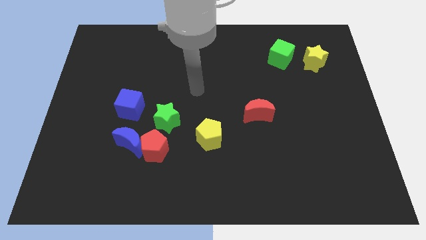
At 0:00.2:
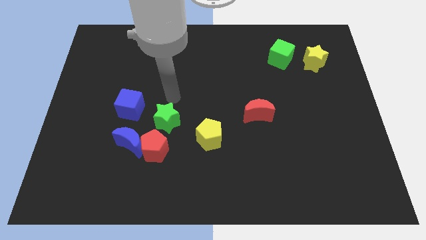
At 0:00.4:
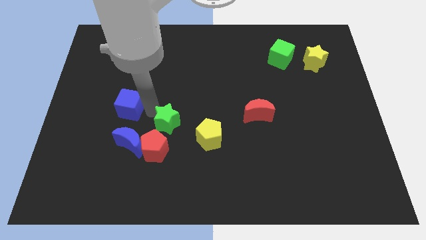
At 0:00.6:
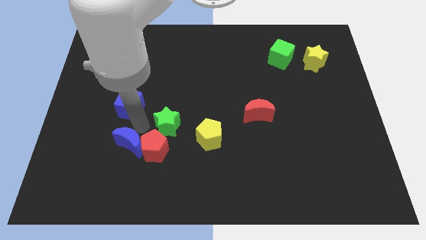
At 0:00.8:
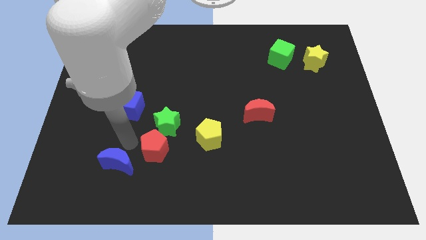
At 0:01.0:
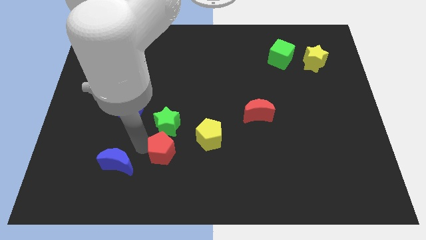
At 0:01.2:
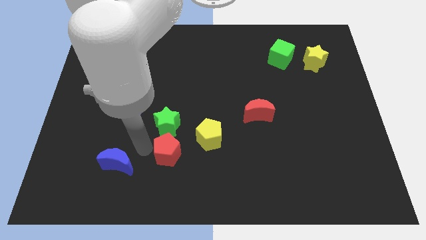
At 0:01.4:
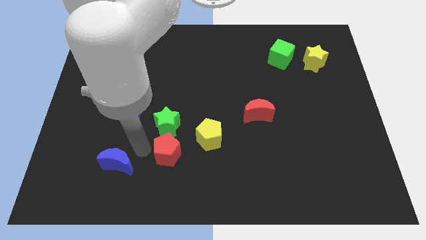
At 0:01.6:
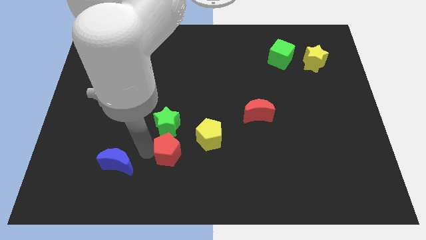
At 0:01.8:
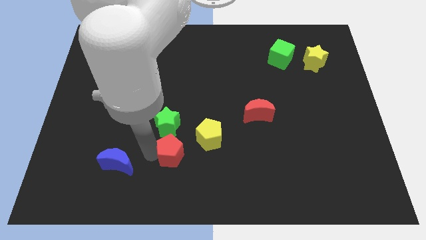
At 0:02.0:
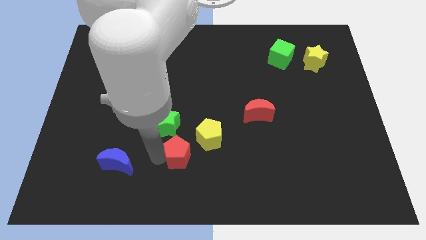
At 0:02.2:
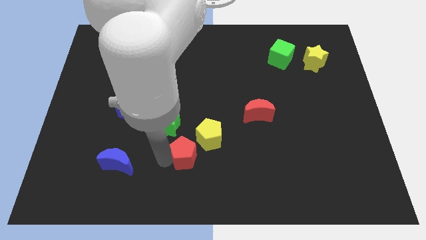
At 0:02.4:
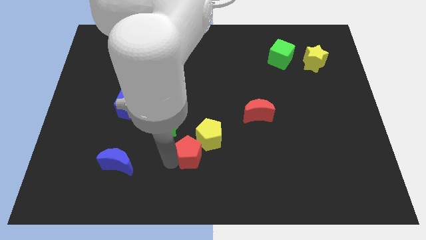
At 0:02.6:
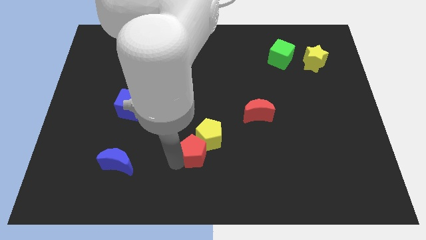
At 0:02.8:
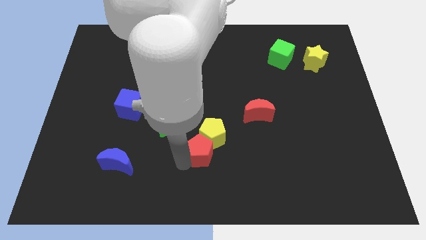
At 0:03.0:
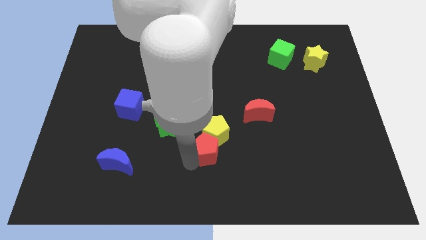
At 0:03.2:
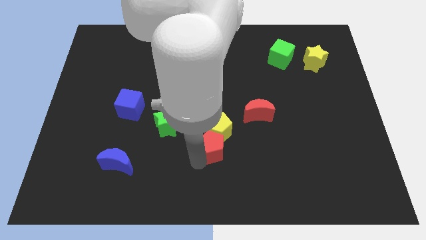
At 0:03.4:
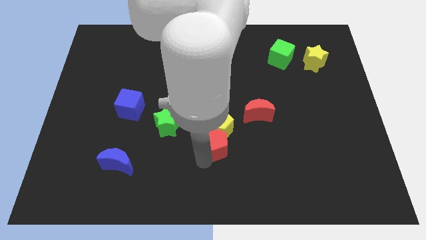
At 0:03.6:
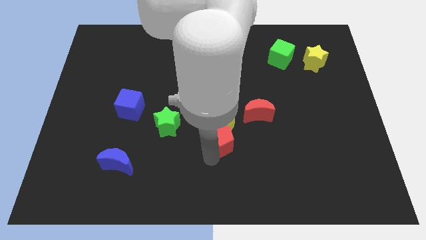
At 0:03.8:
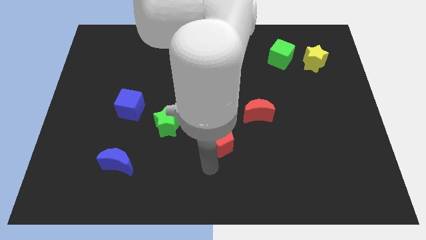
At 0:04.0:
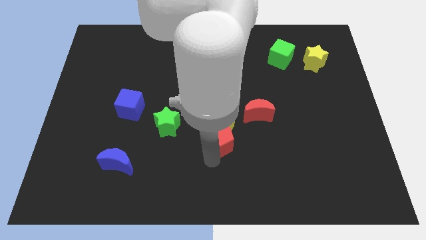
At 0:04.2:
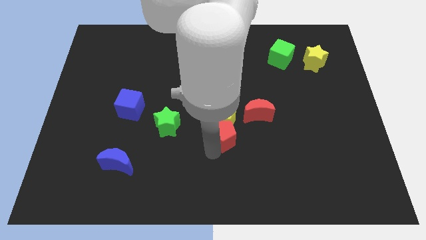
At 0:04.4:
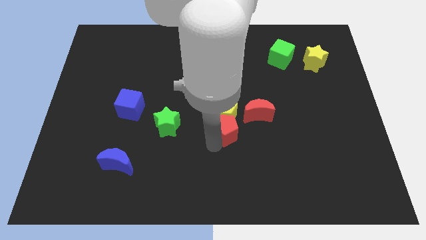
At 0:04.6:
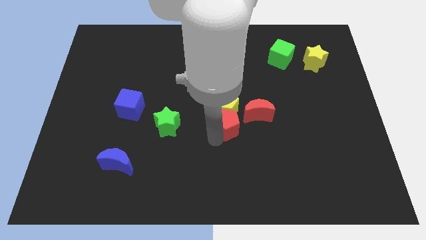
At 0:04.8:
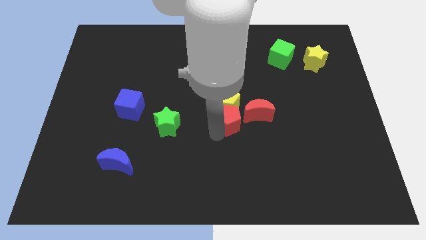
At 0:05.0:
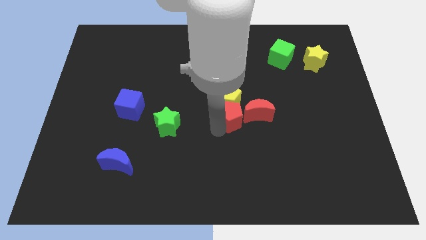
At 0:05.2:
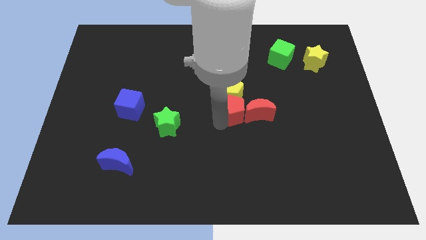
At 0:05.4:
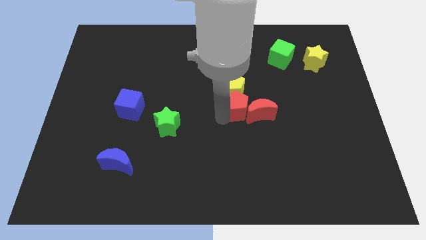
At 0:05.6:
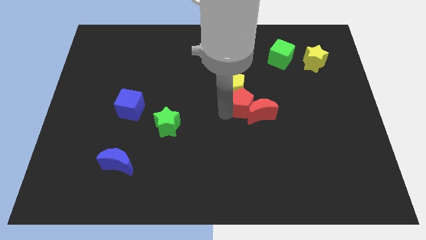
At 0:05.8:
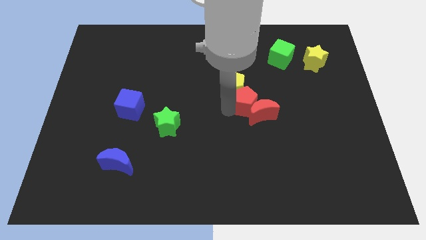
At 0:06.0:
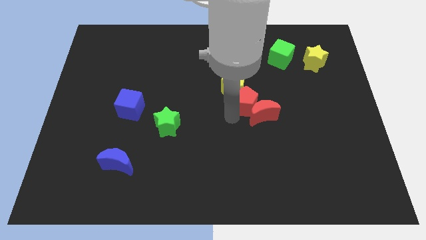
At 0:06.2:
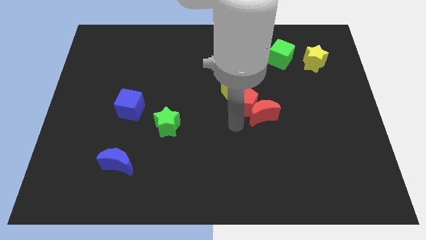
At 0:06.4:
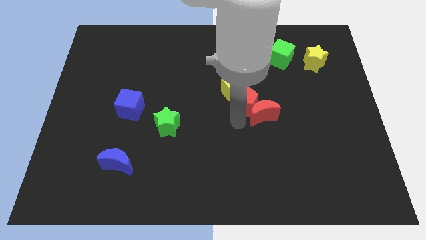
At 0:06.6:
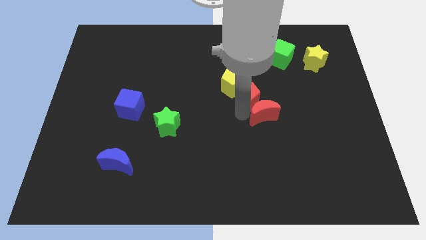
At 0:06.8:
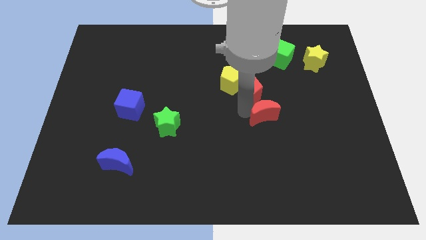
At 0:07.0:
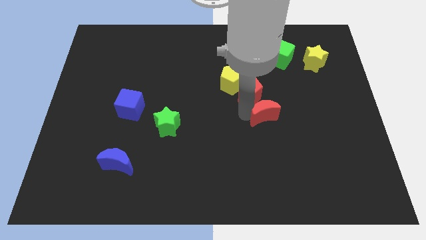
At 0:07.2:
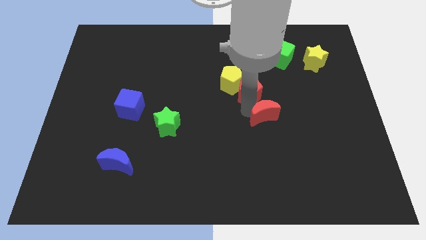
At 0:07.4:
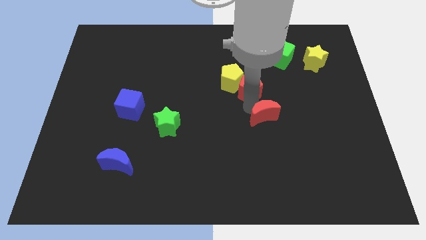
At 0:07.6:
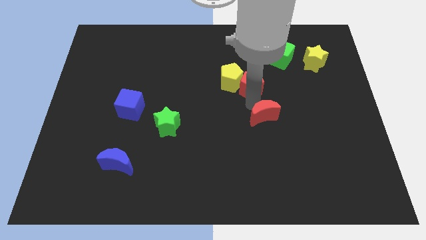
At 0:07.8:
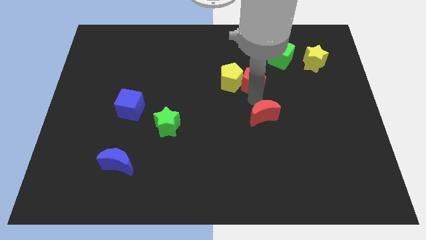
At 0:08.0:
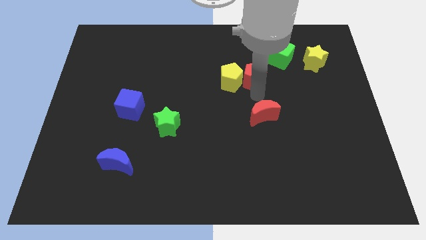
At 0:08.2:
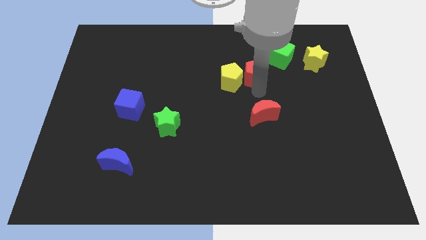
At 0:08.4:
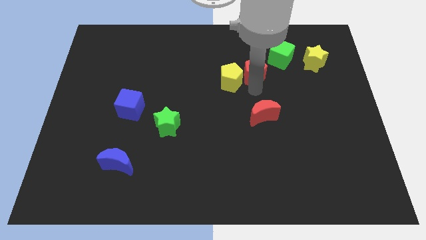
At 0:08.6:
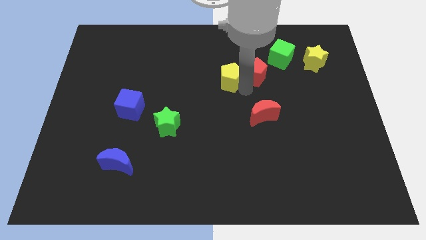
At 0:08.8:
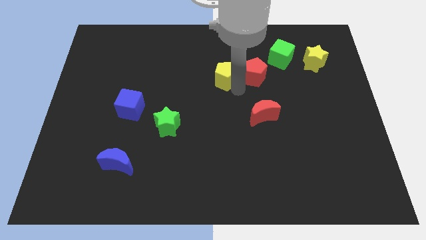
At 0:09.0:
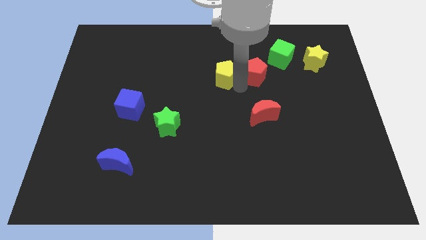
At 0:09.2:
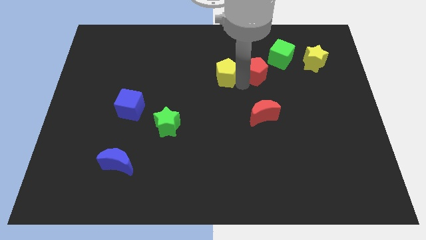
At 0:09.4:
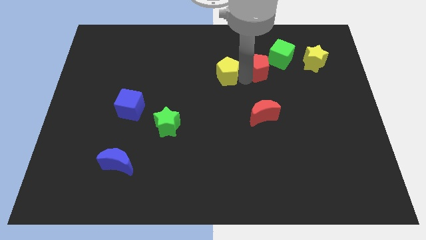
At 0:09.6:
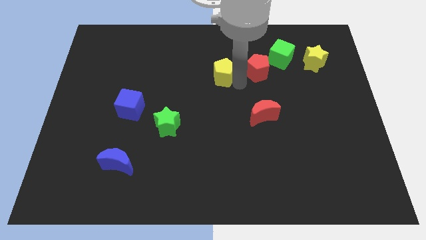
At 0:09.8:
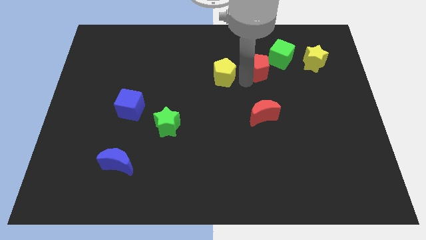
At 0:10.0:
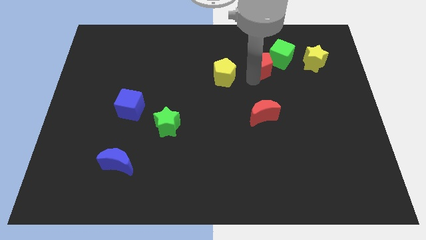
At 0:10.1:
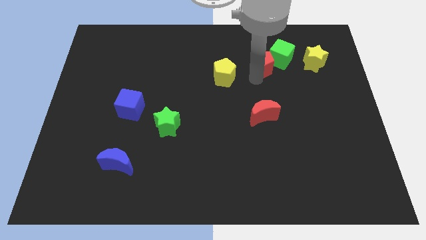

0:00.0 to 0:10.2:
put the red pentagon towards the green cube

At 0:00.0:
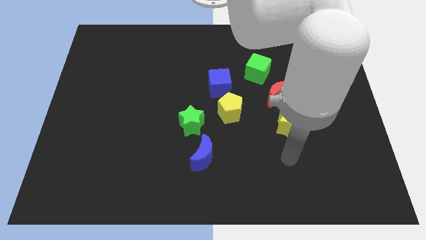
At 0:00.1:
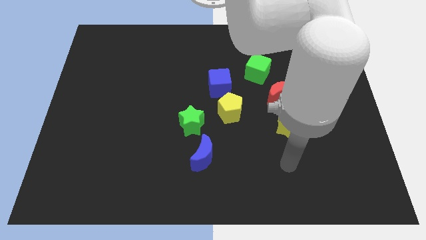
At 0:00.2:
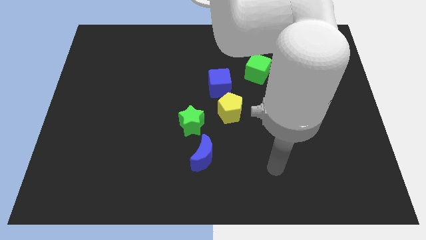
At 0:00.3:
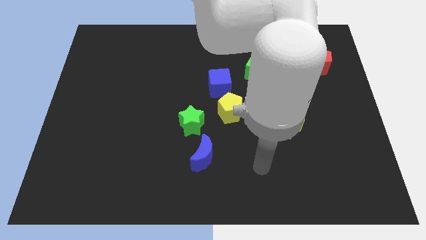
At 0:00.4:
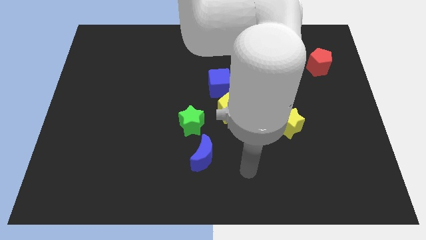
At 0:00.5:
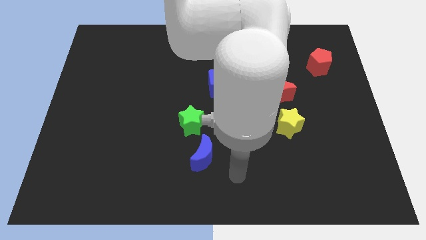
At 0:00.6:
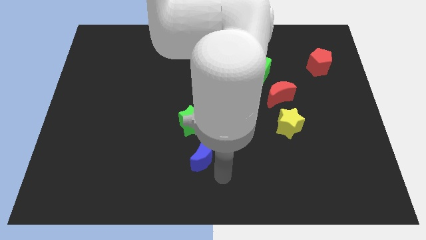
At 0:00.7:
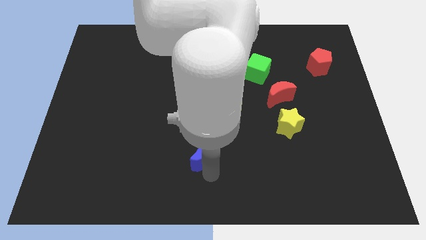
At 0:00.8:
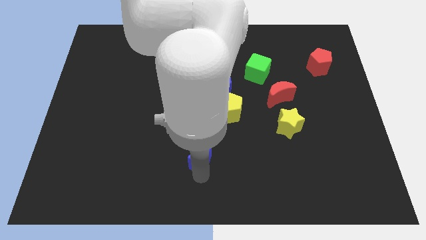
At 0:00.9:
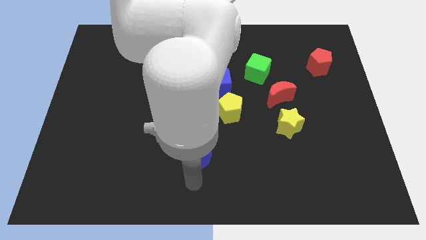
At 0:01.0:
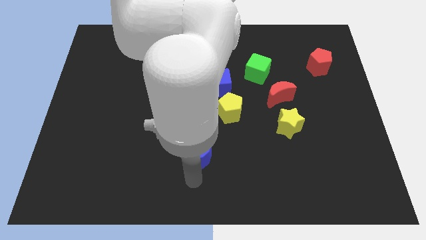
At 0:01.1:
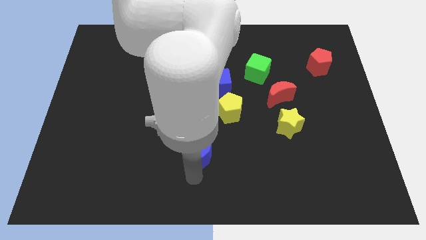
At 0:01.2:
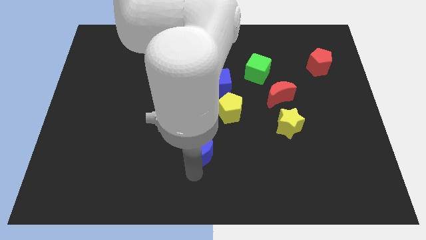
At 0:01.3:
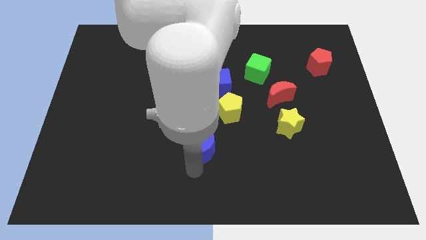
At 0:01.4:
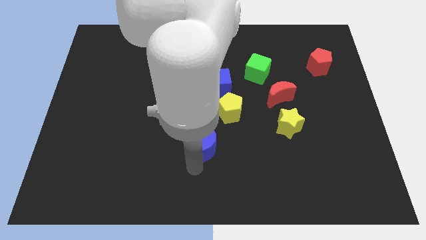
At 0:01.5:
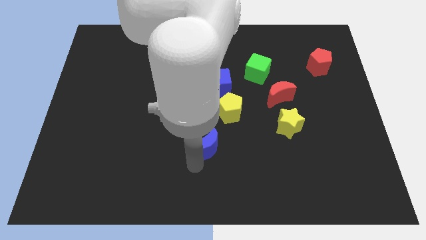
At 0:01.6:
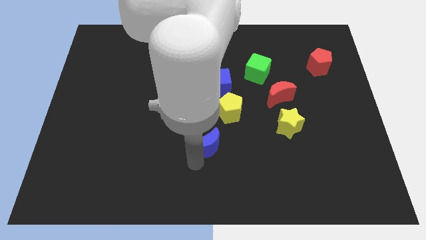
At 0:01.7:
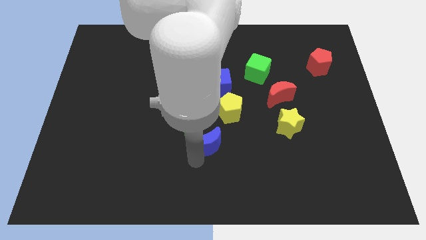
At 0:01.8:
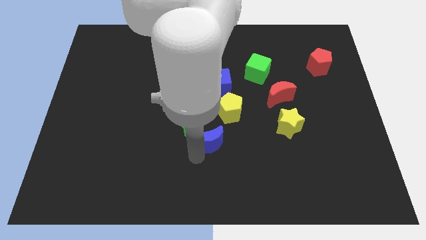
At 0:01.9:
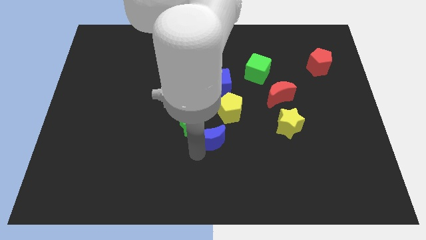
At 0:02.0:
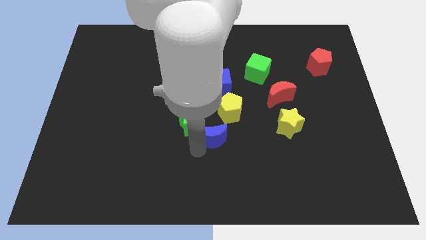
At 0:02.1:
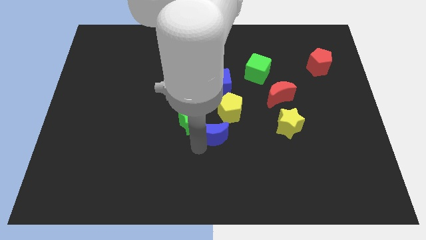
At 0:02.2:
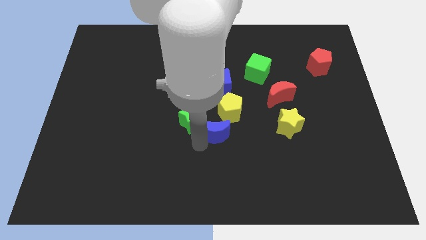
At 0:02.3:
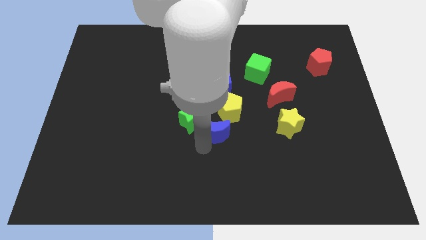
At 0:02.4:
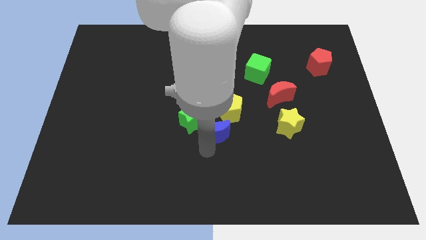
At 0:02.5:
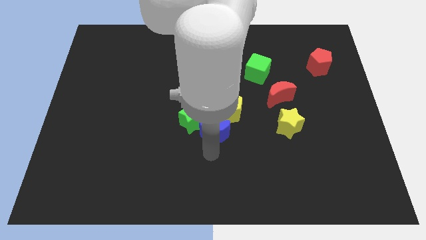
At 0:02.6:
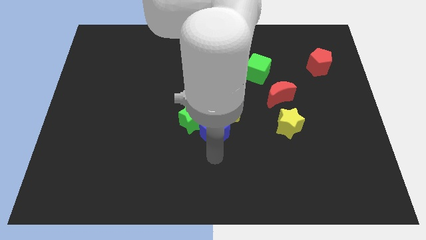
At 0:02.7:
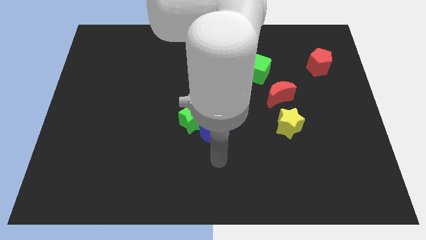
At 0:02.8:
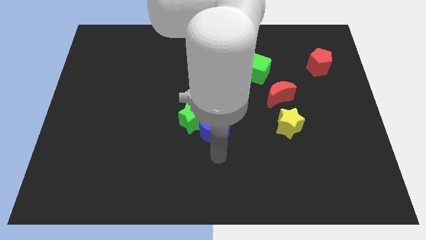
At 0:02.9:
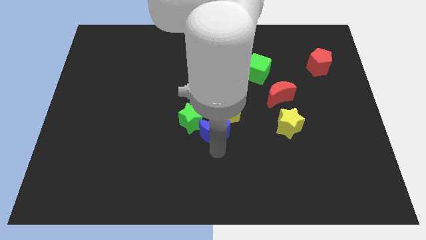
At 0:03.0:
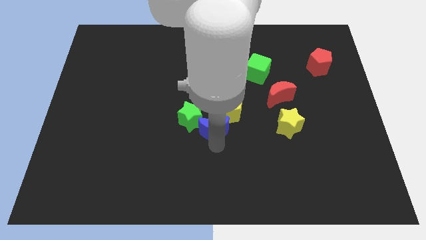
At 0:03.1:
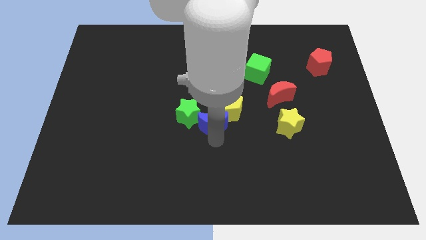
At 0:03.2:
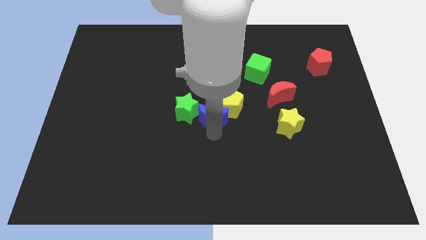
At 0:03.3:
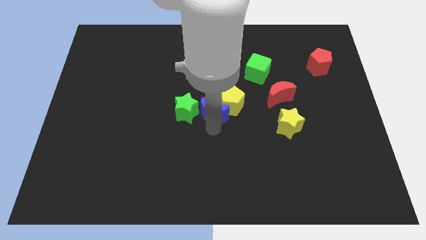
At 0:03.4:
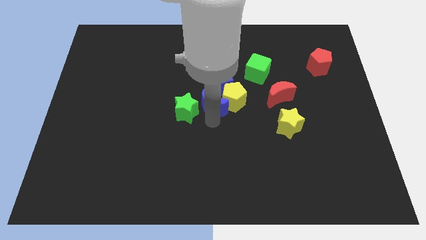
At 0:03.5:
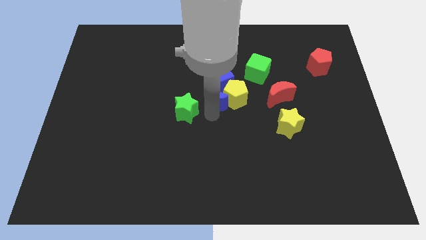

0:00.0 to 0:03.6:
put the blue moon to the blue cube
